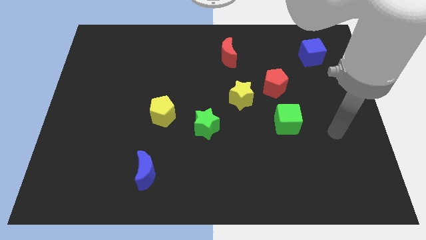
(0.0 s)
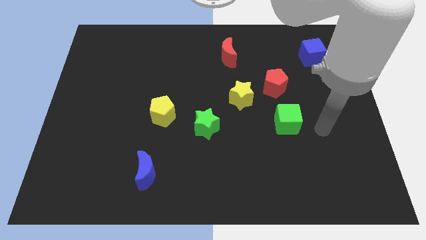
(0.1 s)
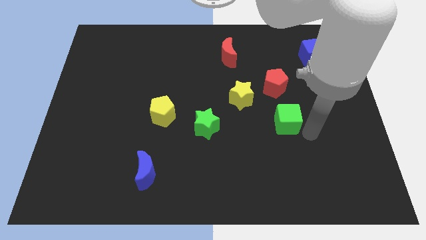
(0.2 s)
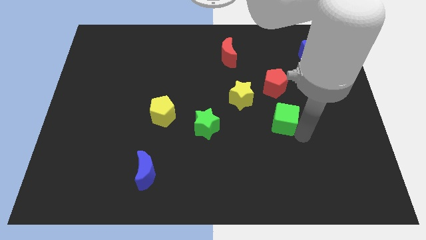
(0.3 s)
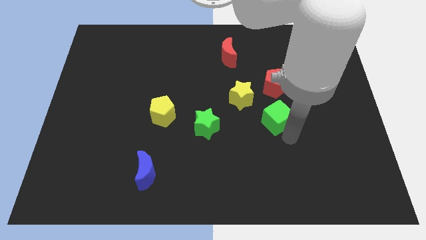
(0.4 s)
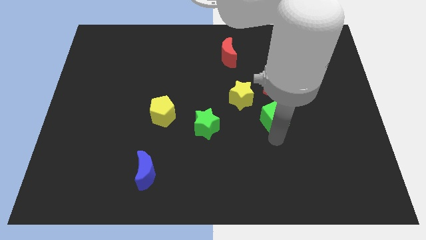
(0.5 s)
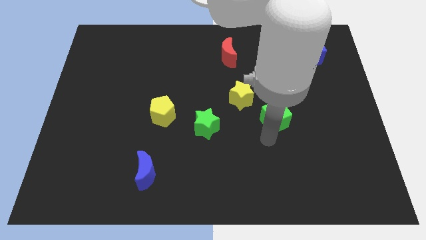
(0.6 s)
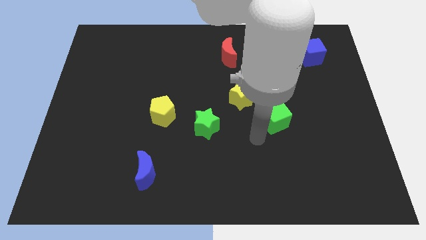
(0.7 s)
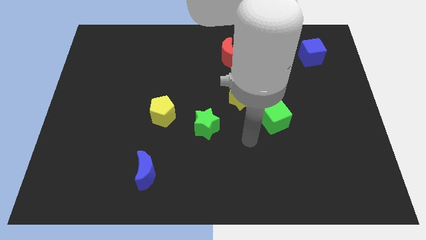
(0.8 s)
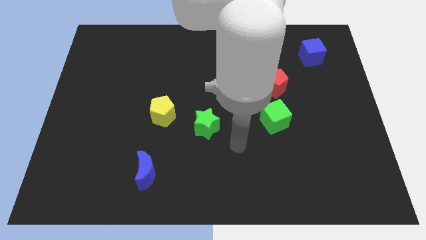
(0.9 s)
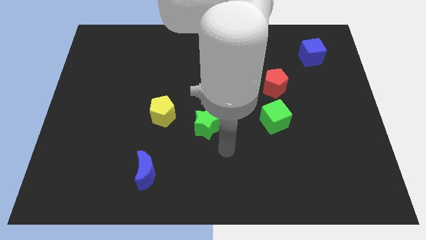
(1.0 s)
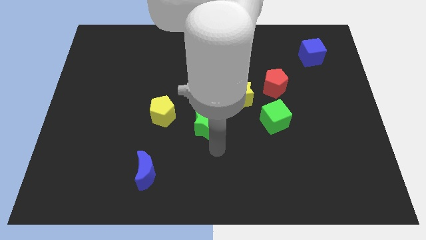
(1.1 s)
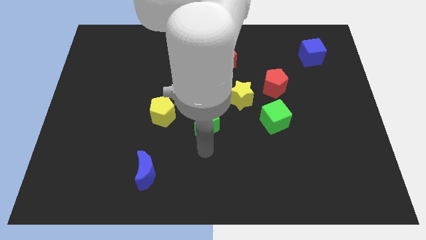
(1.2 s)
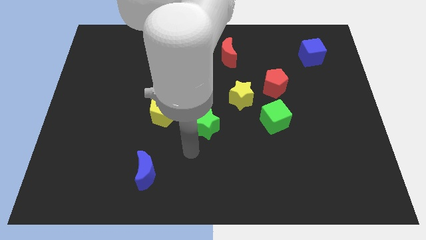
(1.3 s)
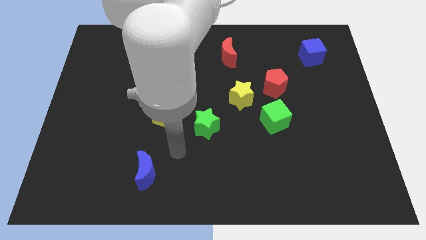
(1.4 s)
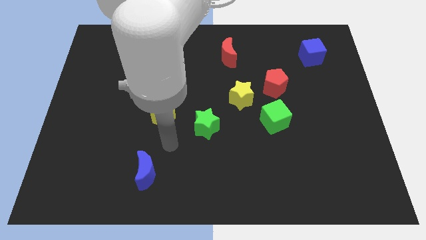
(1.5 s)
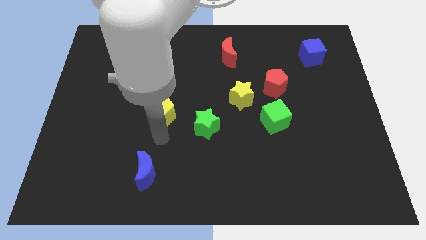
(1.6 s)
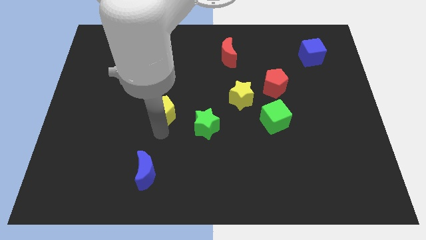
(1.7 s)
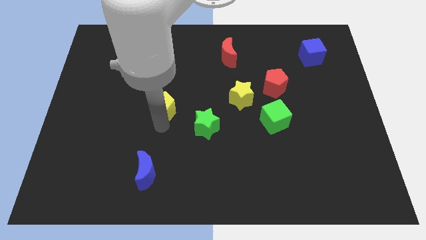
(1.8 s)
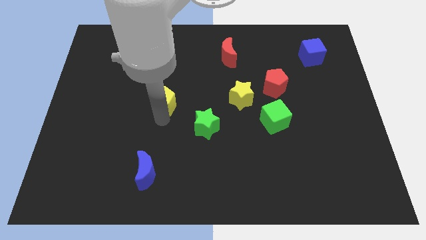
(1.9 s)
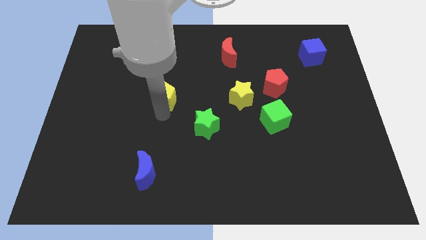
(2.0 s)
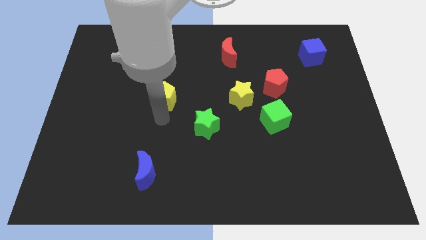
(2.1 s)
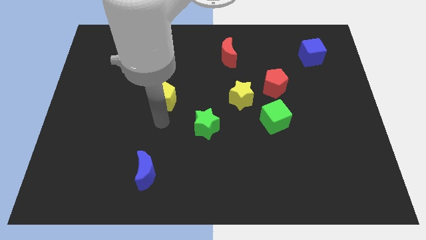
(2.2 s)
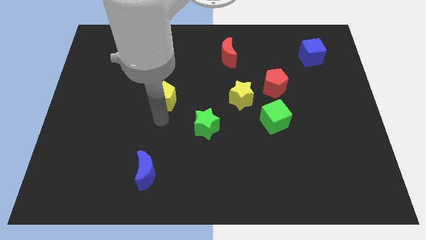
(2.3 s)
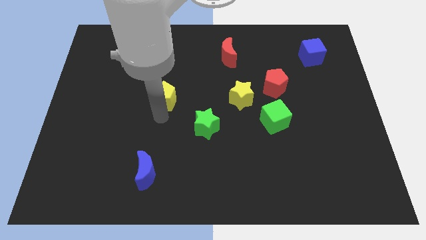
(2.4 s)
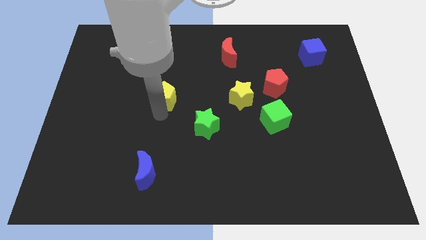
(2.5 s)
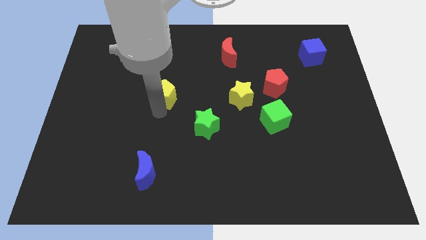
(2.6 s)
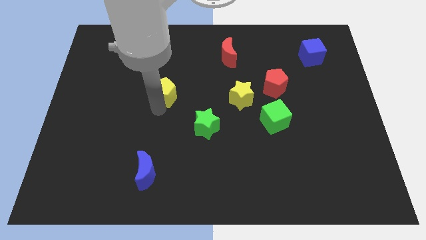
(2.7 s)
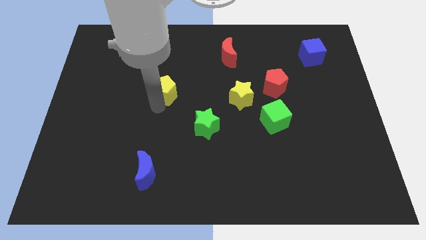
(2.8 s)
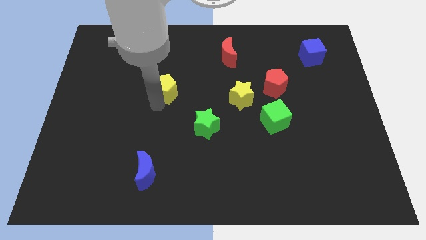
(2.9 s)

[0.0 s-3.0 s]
slightly move the yellow pentagon up

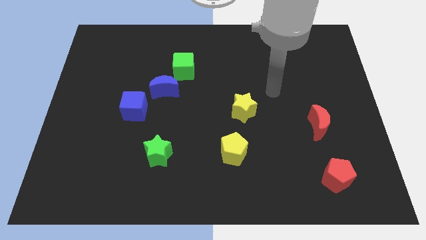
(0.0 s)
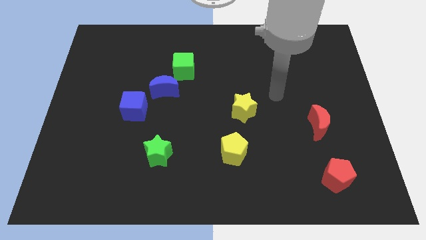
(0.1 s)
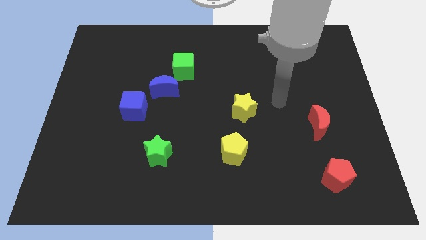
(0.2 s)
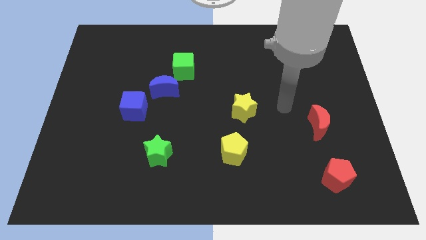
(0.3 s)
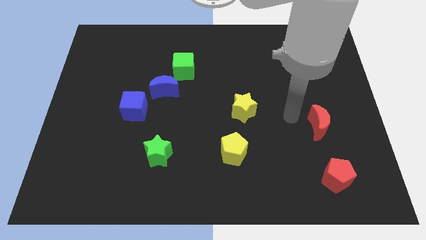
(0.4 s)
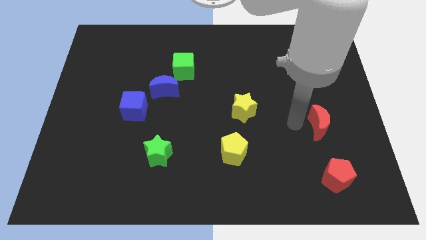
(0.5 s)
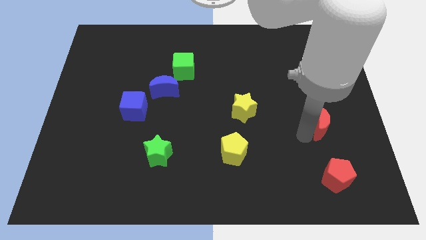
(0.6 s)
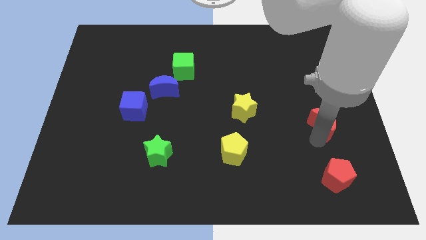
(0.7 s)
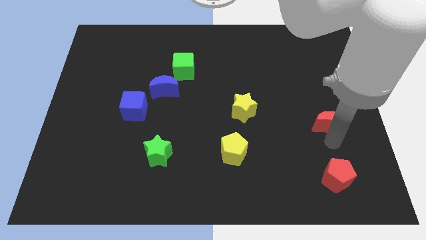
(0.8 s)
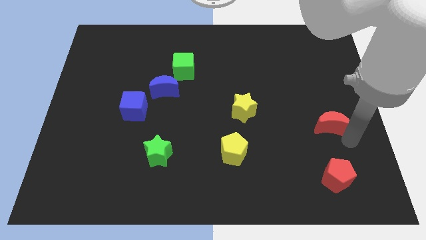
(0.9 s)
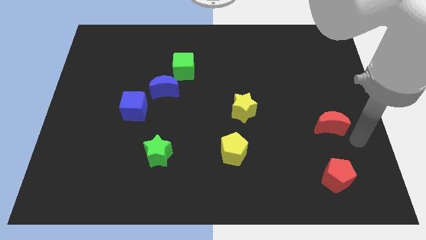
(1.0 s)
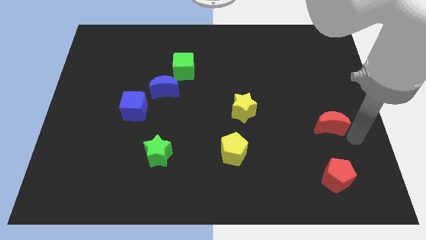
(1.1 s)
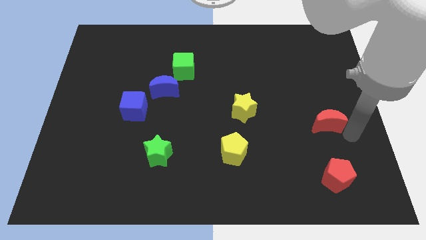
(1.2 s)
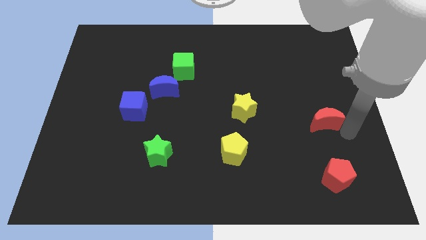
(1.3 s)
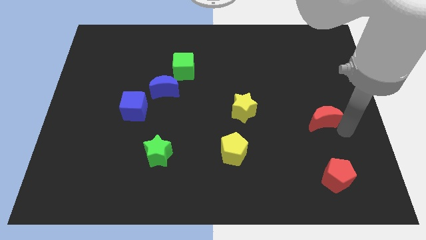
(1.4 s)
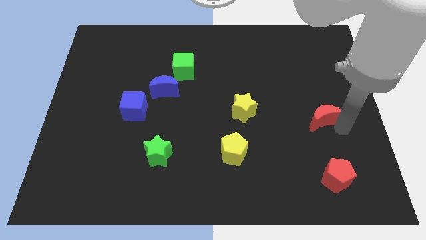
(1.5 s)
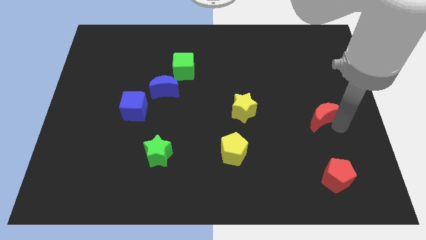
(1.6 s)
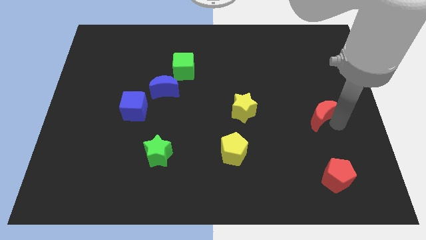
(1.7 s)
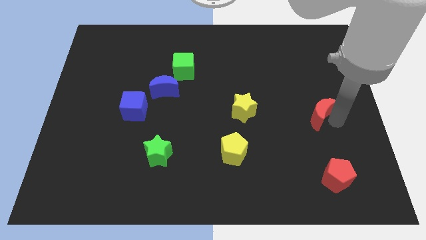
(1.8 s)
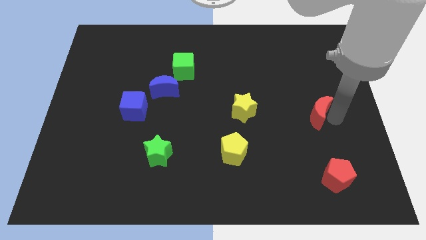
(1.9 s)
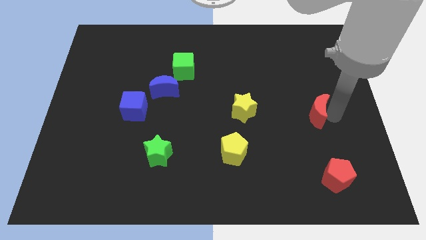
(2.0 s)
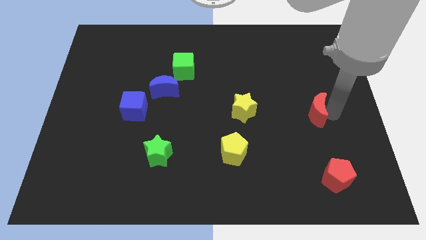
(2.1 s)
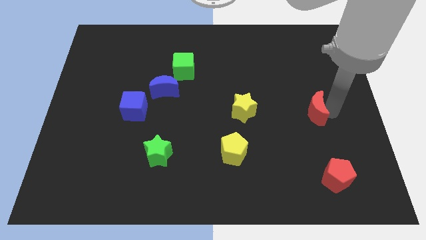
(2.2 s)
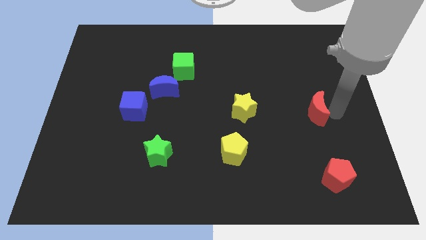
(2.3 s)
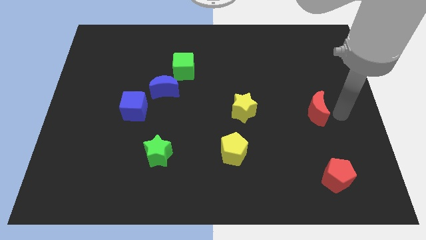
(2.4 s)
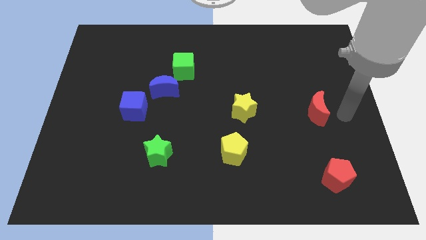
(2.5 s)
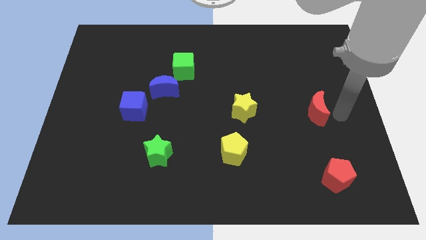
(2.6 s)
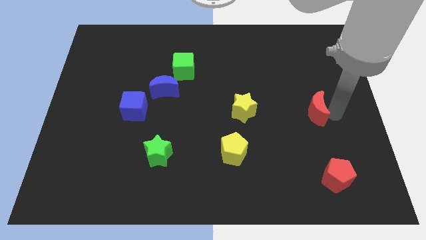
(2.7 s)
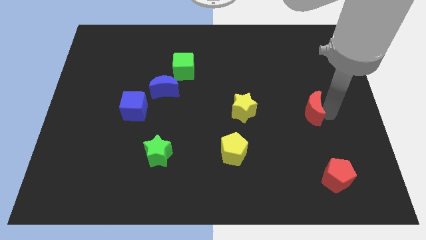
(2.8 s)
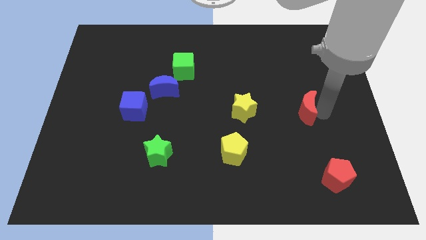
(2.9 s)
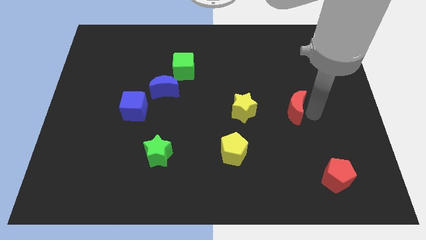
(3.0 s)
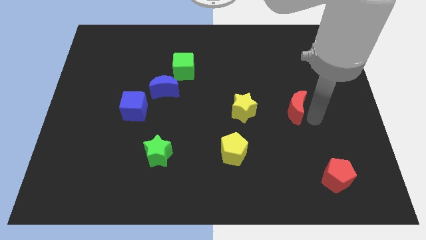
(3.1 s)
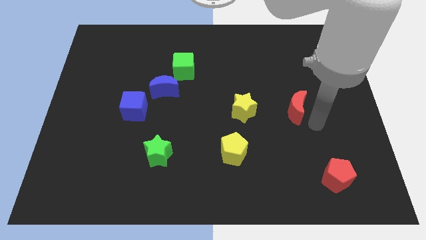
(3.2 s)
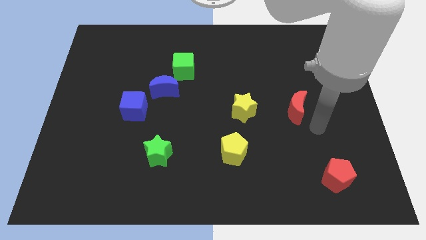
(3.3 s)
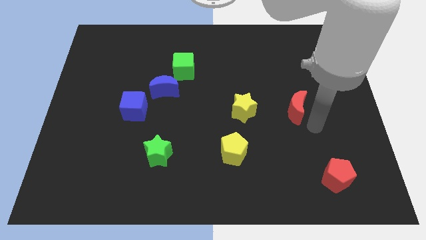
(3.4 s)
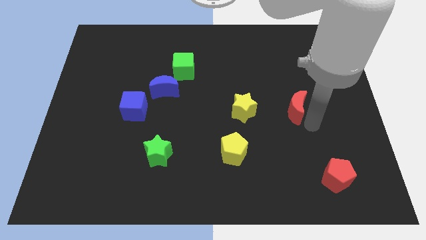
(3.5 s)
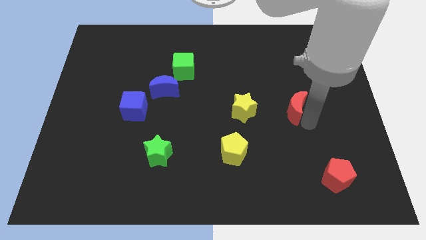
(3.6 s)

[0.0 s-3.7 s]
push the red moon upwards and left diagonally a little bit

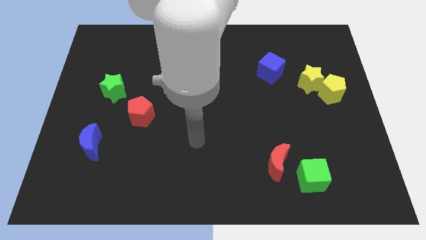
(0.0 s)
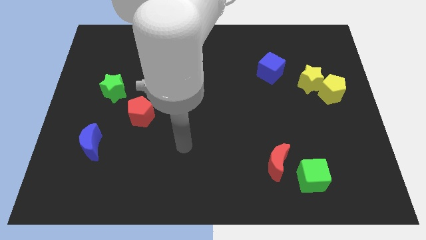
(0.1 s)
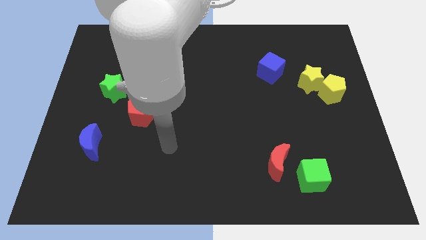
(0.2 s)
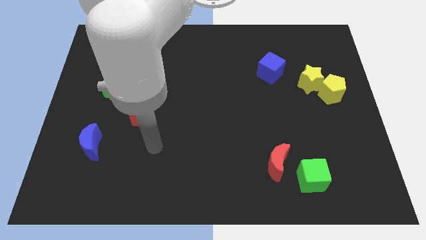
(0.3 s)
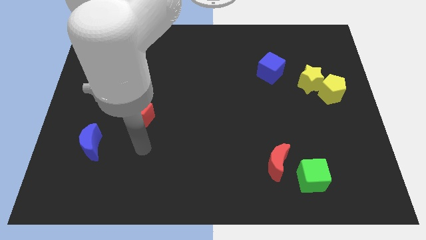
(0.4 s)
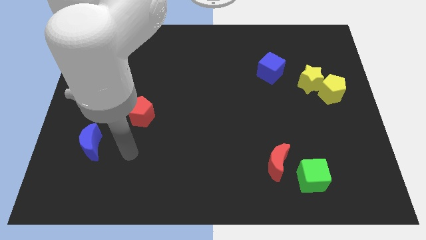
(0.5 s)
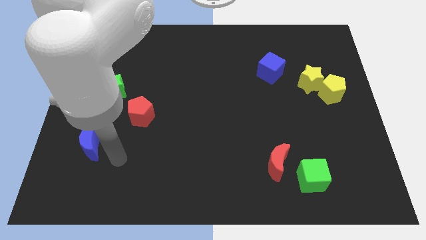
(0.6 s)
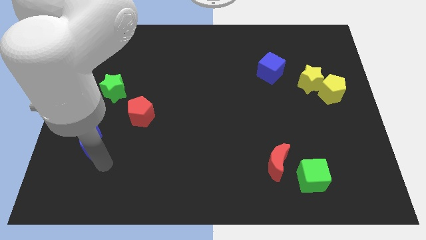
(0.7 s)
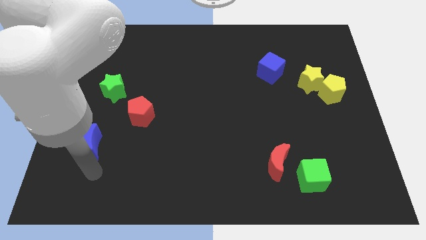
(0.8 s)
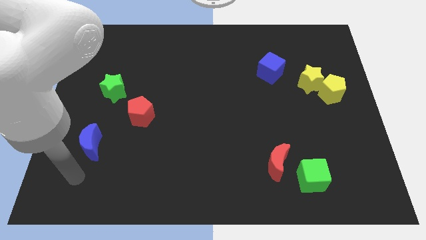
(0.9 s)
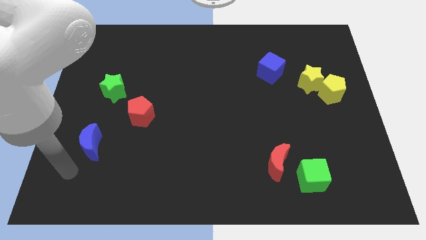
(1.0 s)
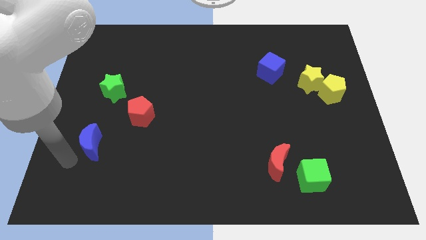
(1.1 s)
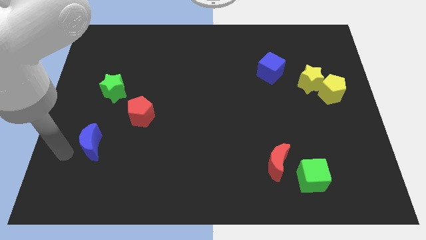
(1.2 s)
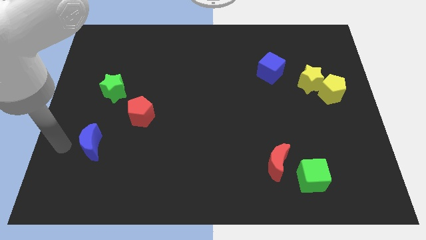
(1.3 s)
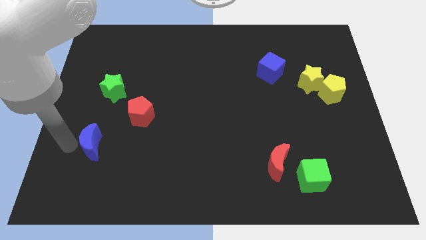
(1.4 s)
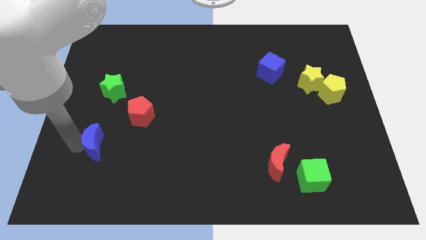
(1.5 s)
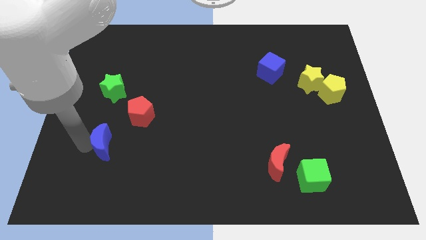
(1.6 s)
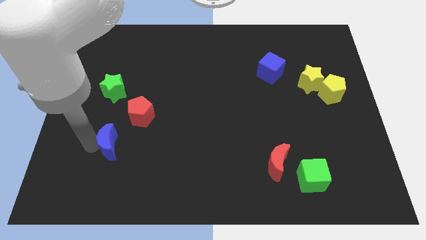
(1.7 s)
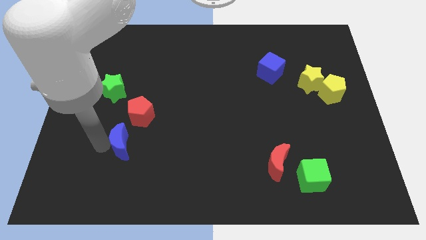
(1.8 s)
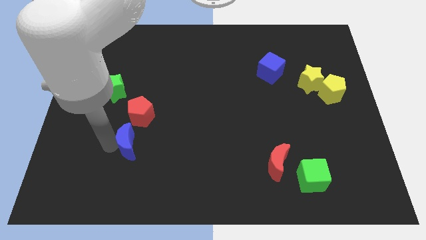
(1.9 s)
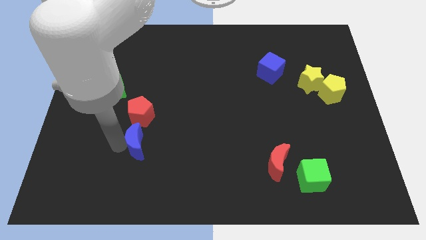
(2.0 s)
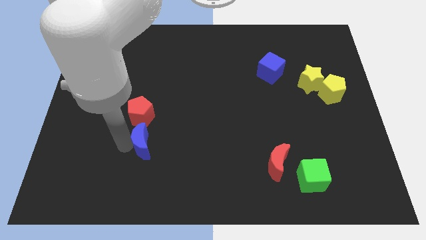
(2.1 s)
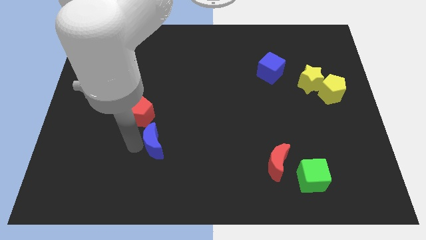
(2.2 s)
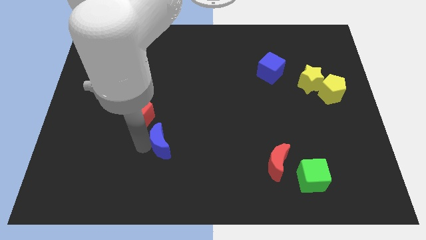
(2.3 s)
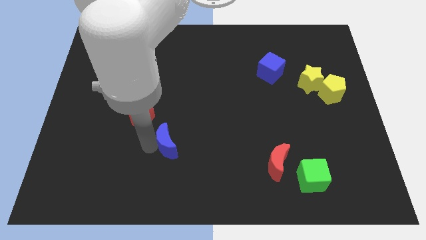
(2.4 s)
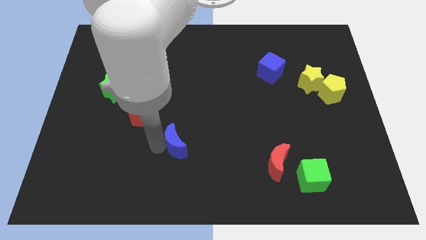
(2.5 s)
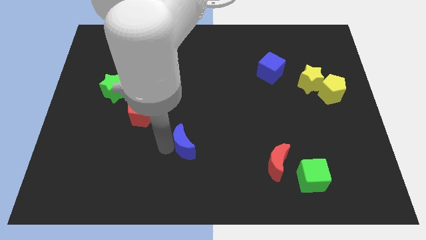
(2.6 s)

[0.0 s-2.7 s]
move the blue moon to the right
